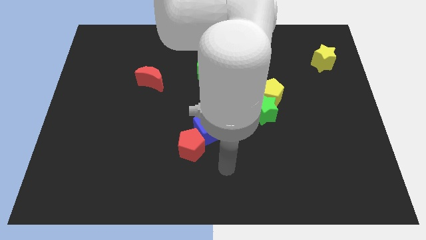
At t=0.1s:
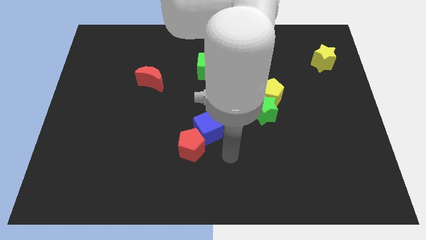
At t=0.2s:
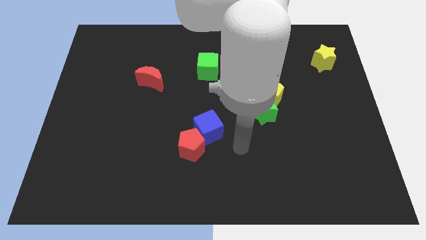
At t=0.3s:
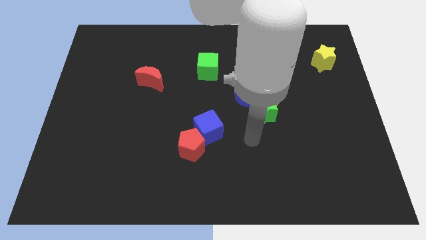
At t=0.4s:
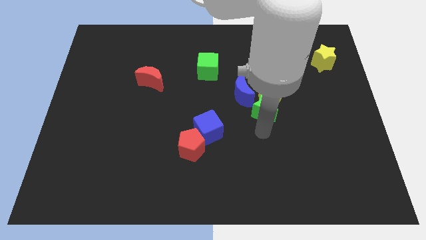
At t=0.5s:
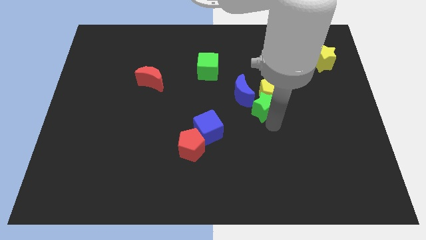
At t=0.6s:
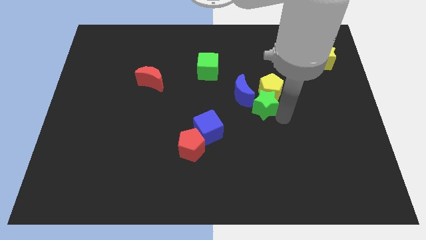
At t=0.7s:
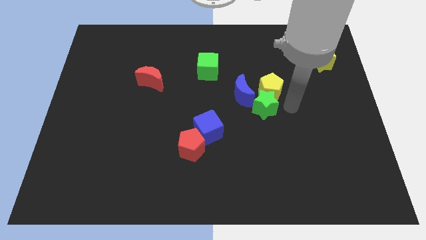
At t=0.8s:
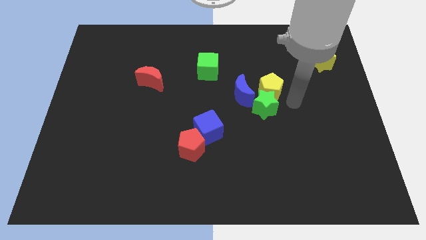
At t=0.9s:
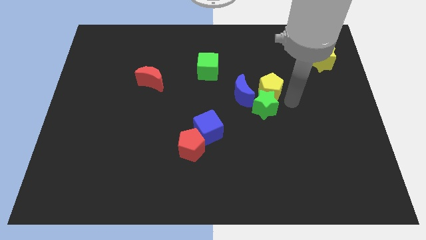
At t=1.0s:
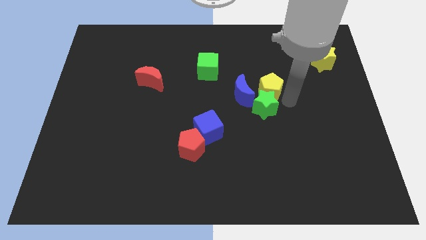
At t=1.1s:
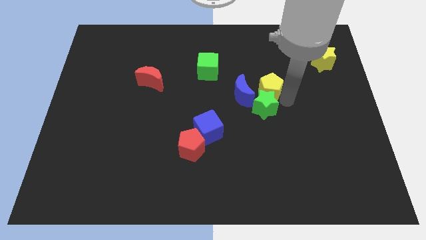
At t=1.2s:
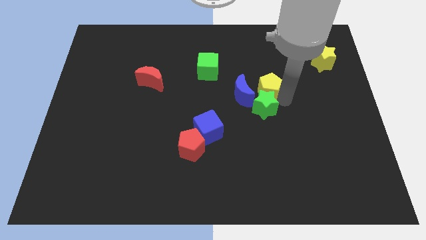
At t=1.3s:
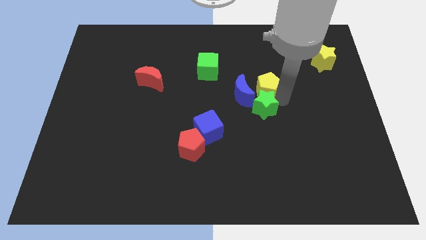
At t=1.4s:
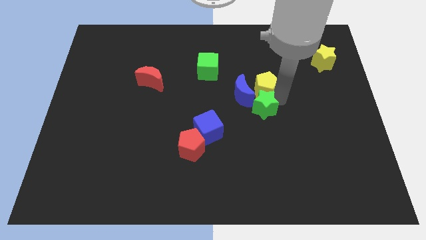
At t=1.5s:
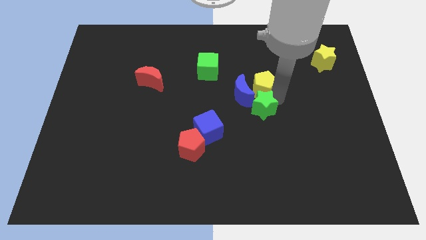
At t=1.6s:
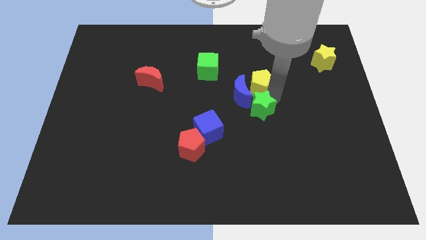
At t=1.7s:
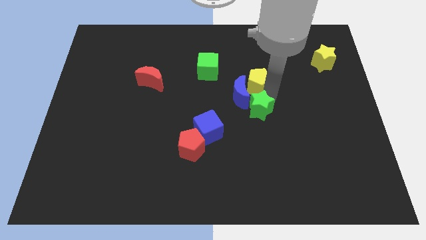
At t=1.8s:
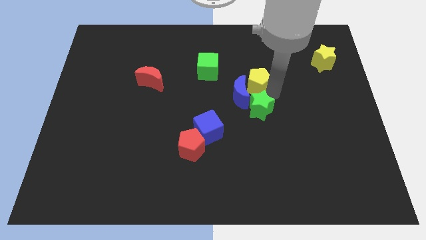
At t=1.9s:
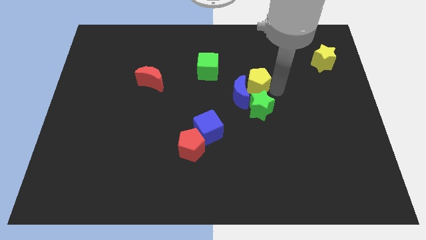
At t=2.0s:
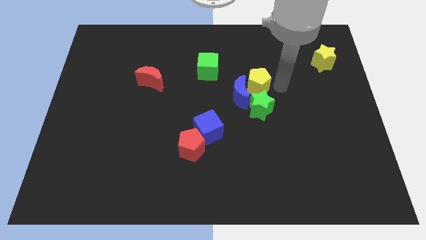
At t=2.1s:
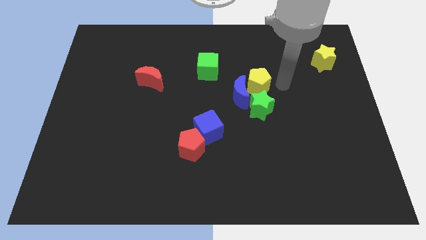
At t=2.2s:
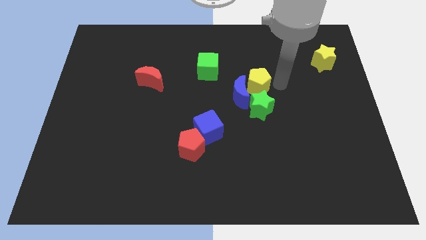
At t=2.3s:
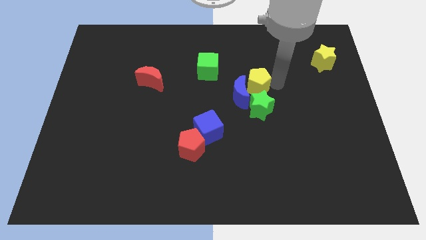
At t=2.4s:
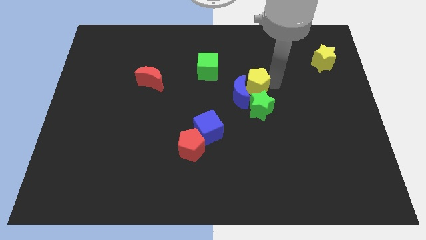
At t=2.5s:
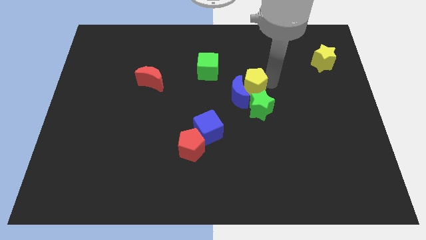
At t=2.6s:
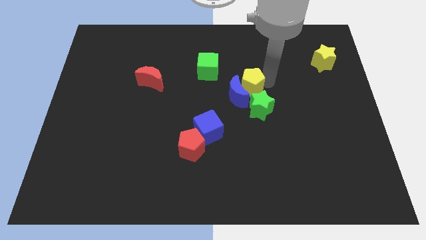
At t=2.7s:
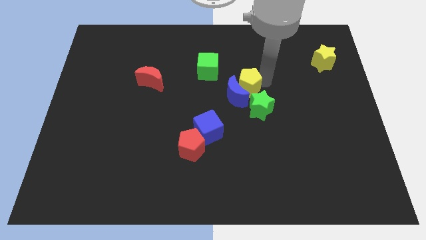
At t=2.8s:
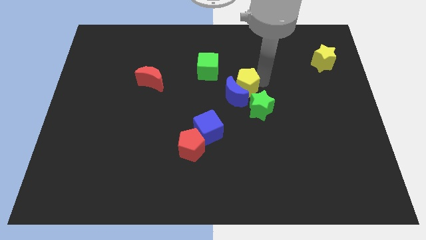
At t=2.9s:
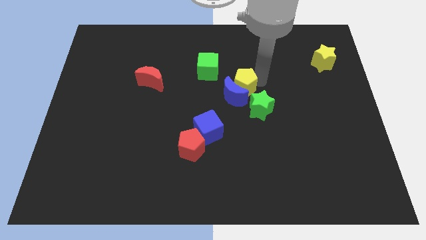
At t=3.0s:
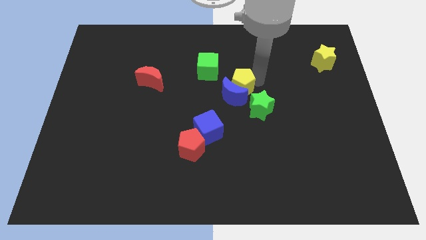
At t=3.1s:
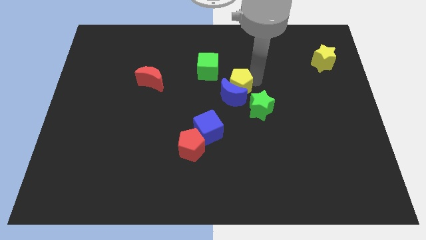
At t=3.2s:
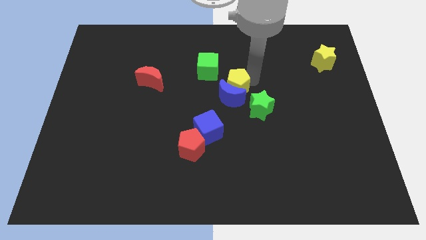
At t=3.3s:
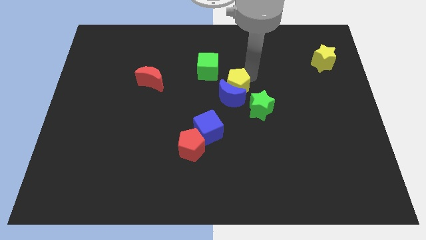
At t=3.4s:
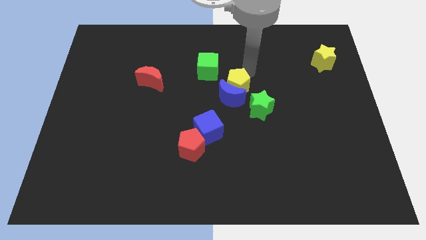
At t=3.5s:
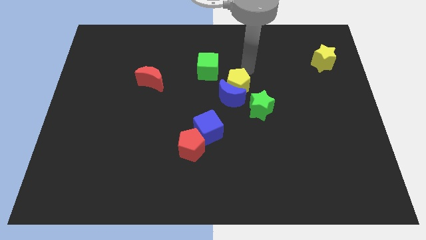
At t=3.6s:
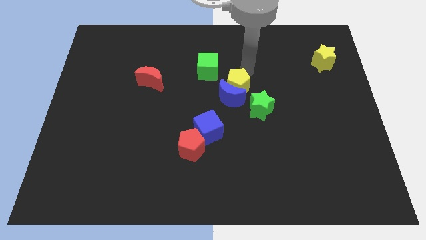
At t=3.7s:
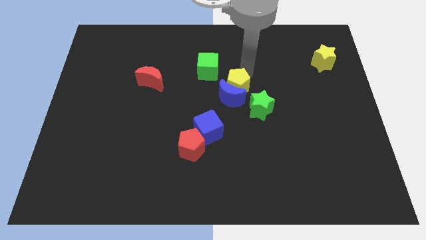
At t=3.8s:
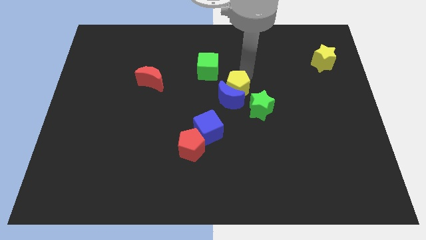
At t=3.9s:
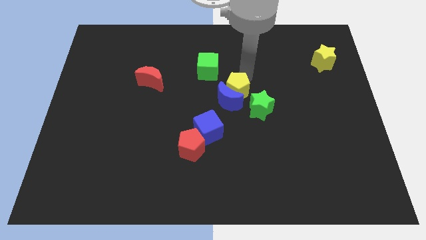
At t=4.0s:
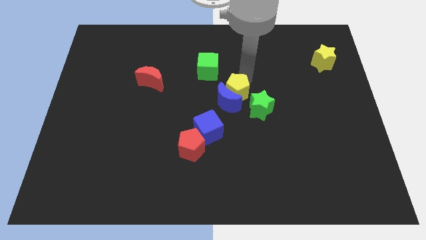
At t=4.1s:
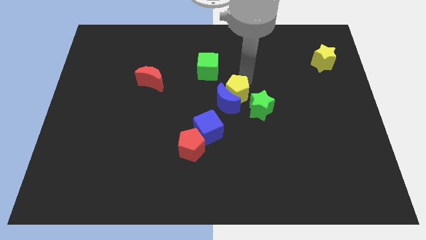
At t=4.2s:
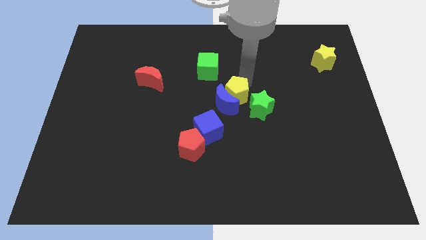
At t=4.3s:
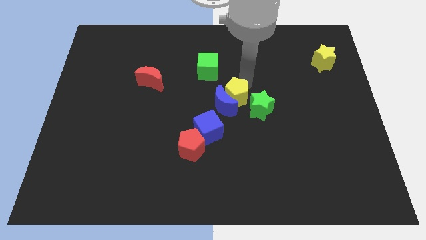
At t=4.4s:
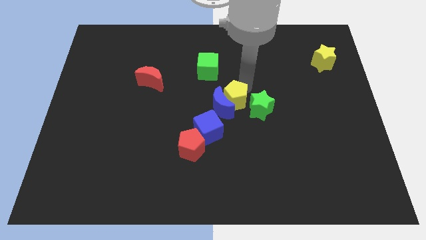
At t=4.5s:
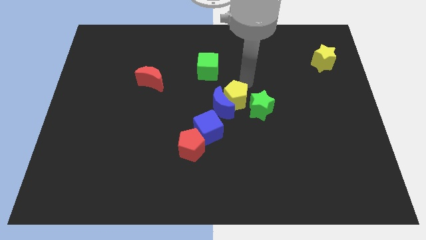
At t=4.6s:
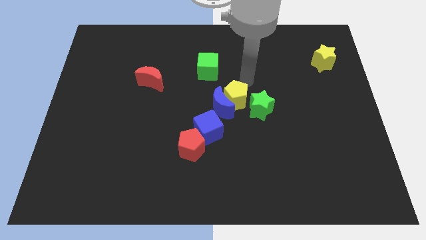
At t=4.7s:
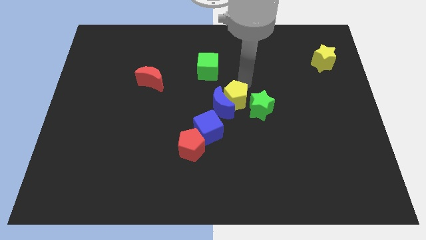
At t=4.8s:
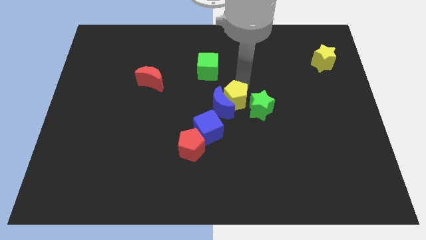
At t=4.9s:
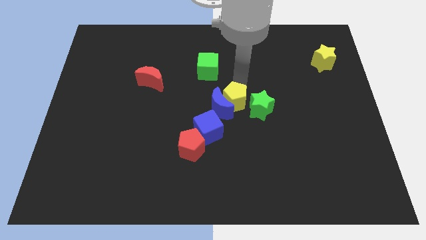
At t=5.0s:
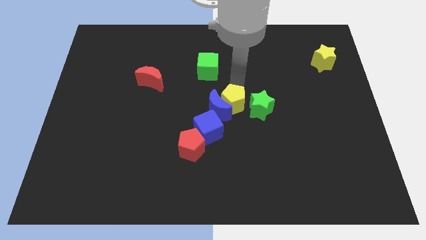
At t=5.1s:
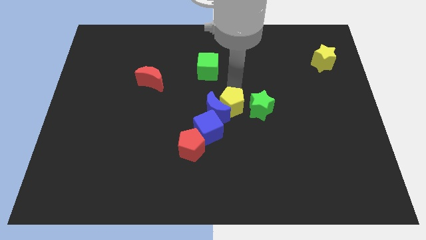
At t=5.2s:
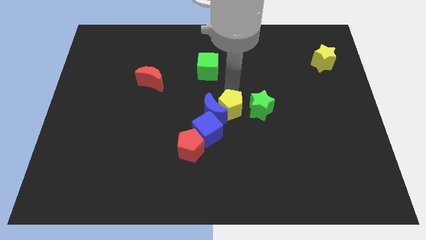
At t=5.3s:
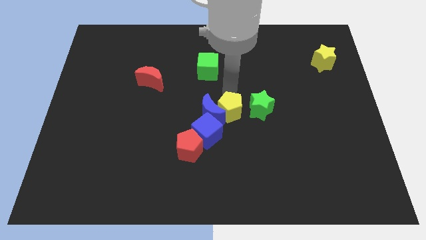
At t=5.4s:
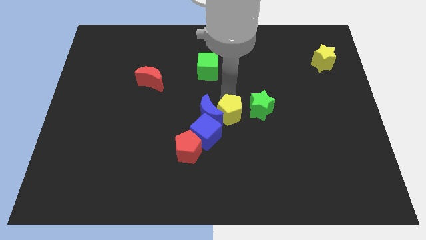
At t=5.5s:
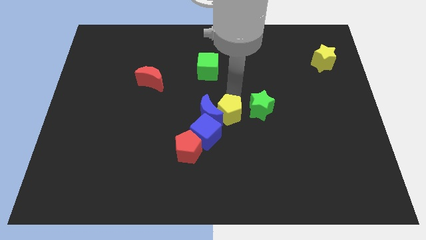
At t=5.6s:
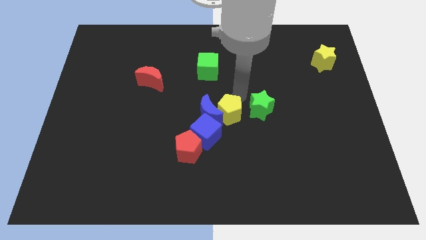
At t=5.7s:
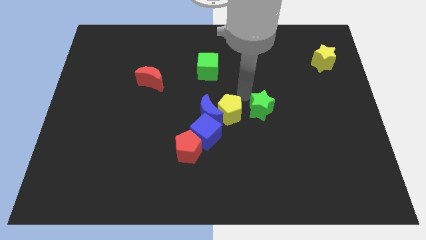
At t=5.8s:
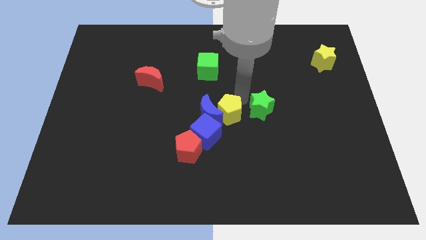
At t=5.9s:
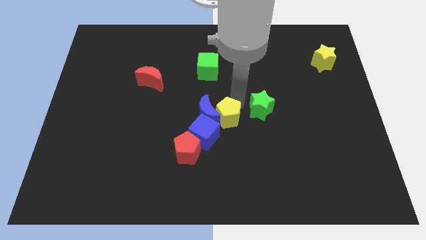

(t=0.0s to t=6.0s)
push the yellow pentagon to the top right side of the red pentagon

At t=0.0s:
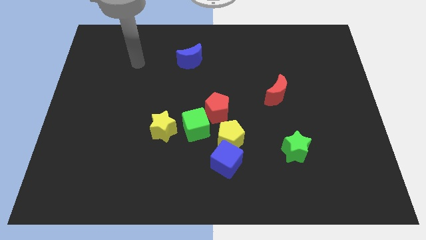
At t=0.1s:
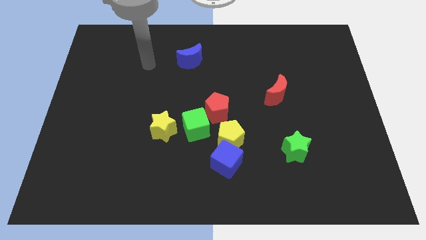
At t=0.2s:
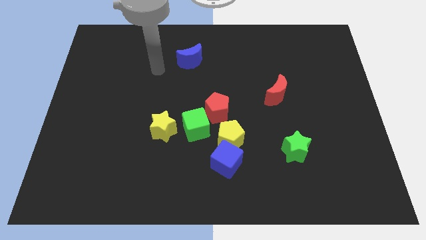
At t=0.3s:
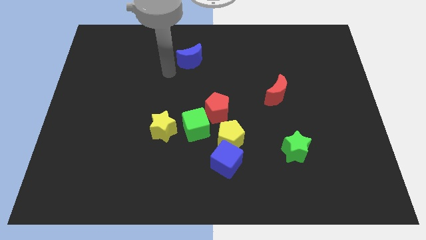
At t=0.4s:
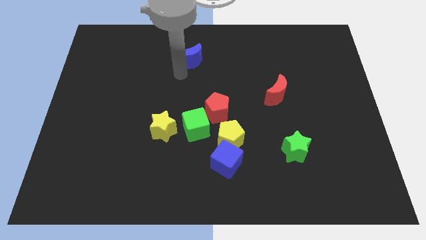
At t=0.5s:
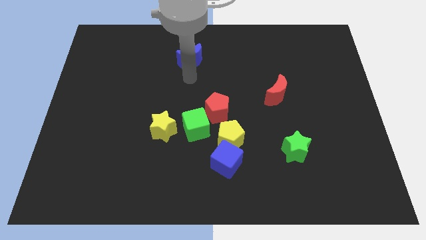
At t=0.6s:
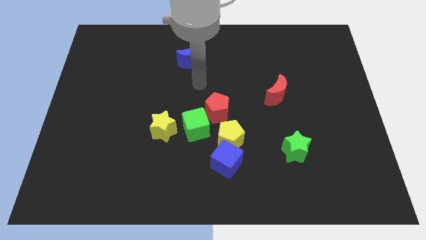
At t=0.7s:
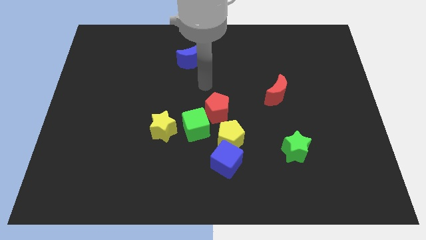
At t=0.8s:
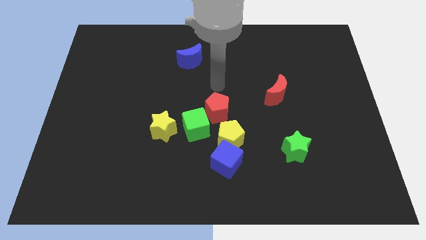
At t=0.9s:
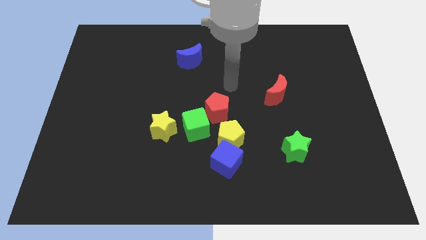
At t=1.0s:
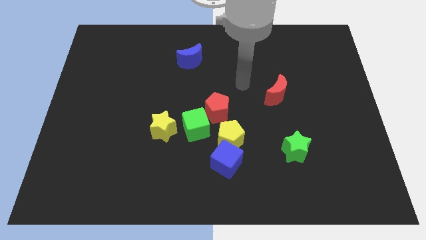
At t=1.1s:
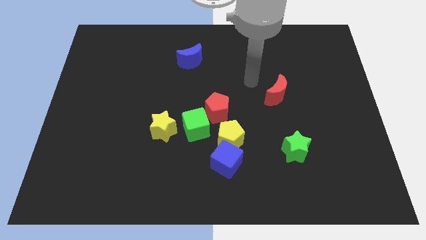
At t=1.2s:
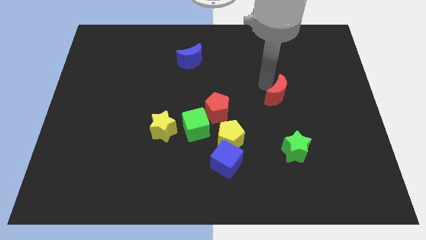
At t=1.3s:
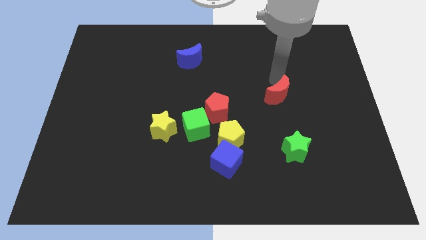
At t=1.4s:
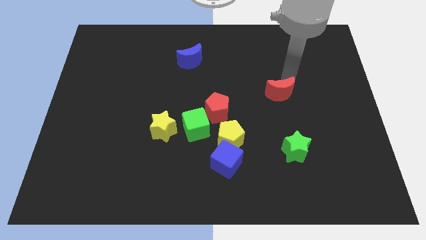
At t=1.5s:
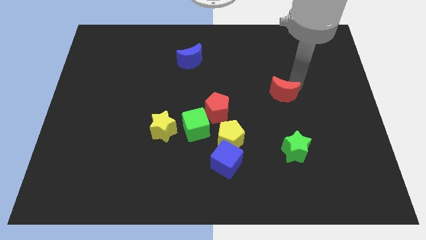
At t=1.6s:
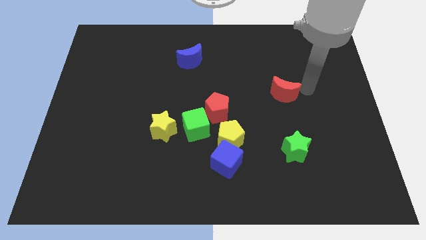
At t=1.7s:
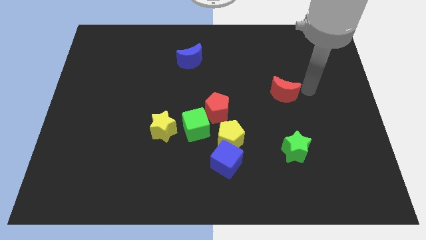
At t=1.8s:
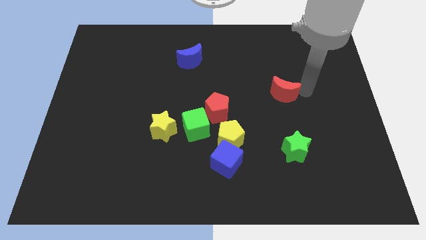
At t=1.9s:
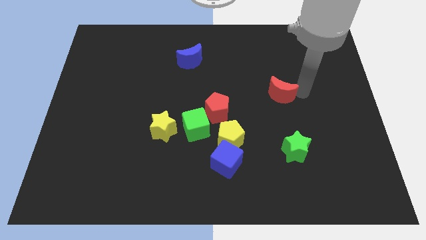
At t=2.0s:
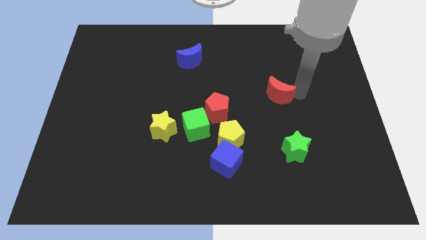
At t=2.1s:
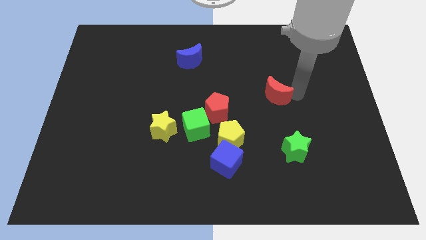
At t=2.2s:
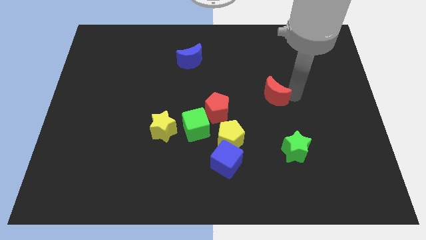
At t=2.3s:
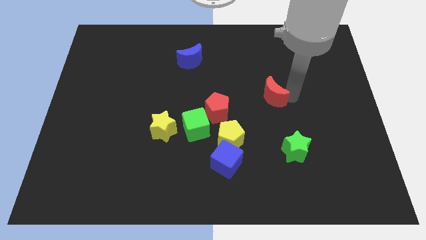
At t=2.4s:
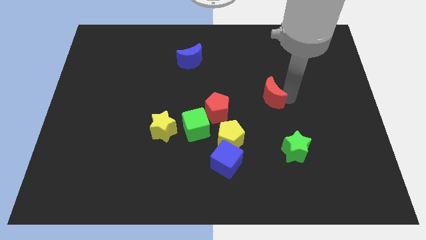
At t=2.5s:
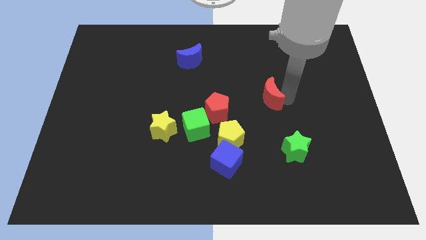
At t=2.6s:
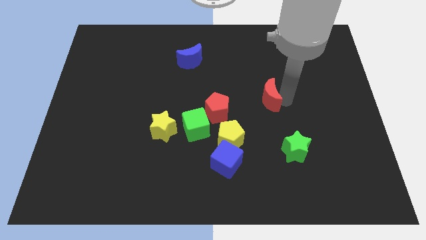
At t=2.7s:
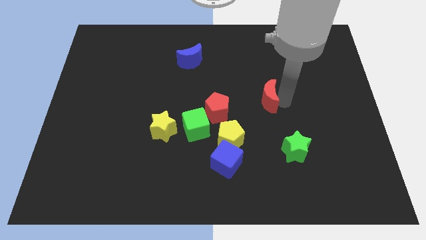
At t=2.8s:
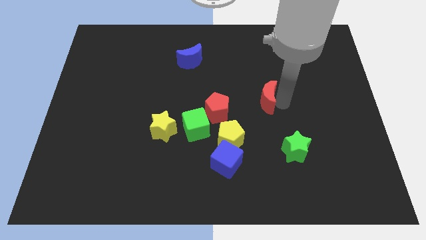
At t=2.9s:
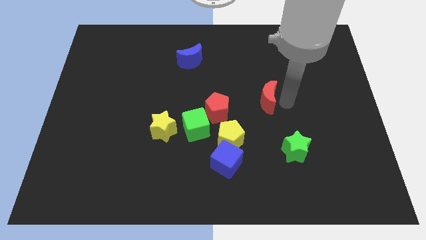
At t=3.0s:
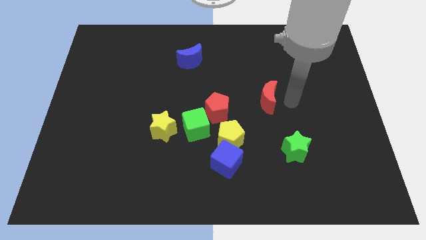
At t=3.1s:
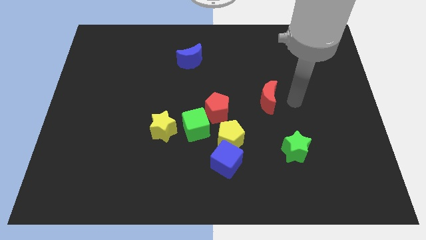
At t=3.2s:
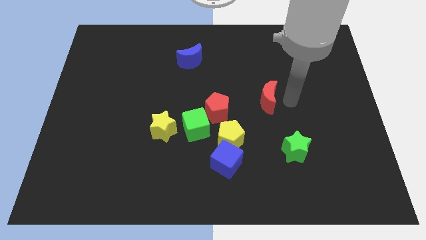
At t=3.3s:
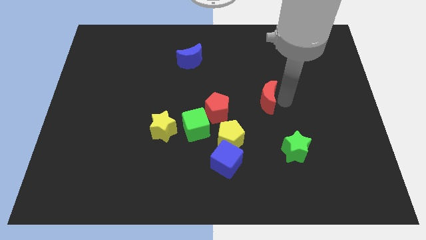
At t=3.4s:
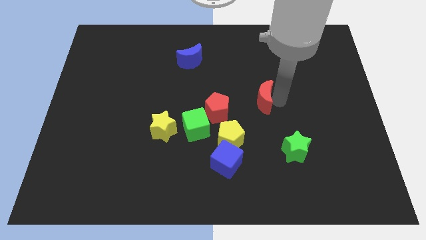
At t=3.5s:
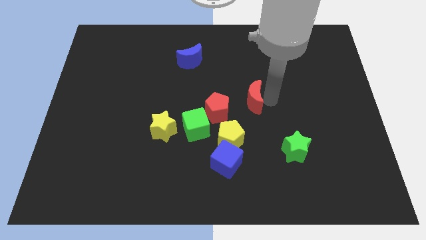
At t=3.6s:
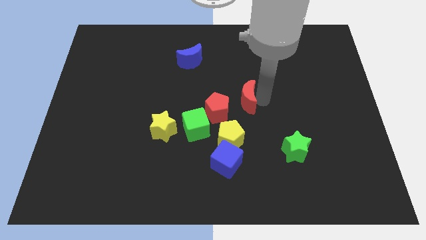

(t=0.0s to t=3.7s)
put the red moon to the top of the yellow pentagon
